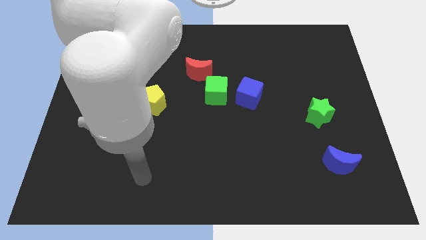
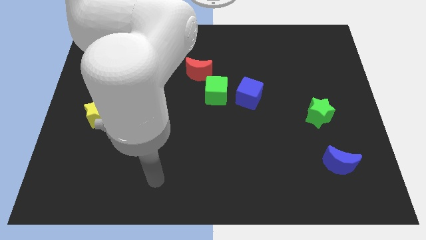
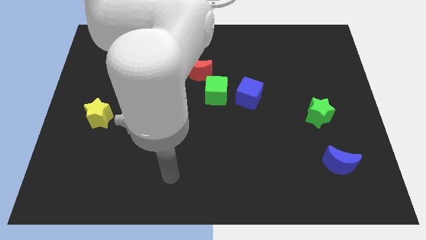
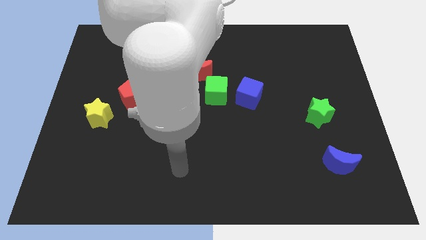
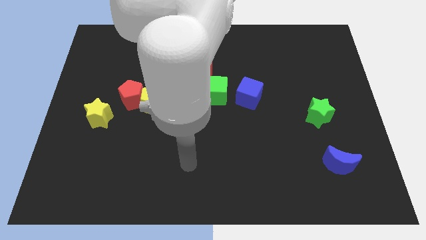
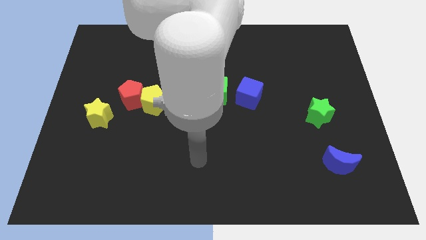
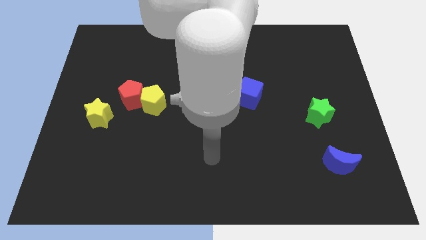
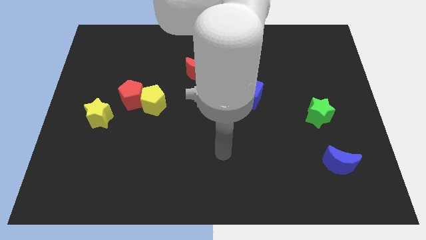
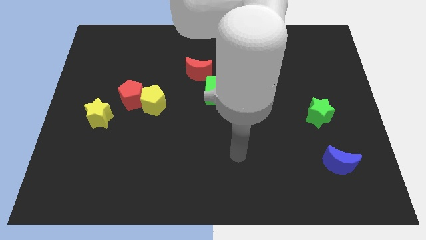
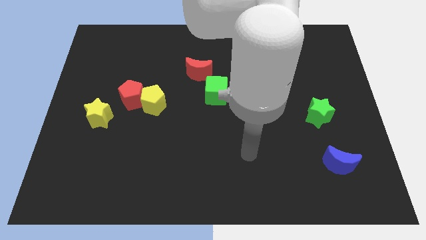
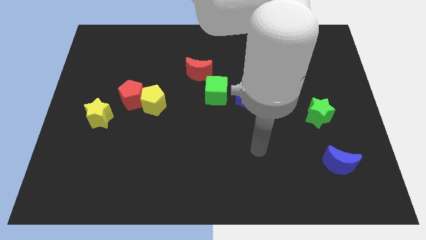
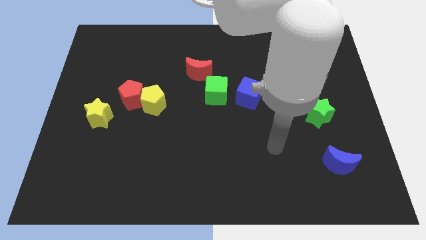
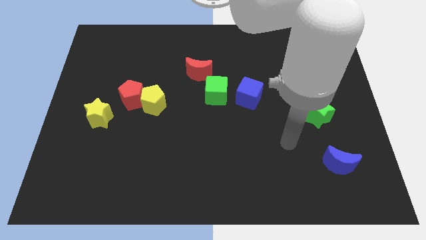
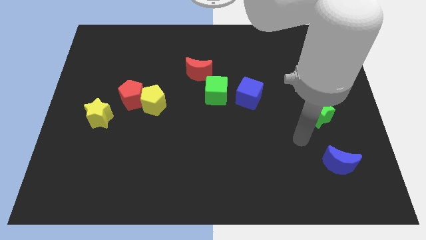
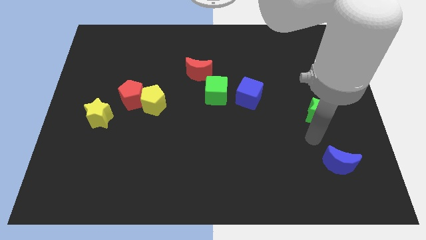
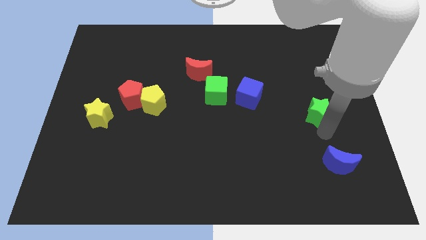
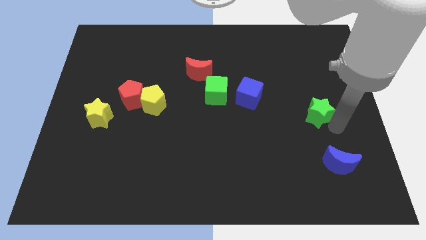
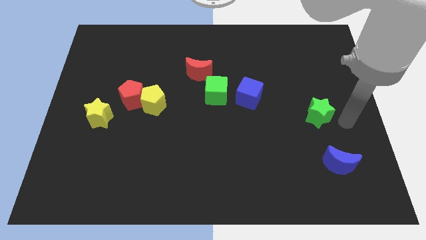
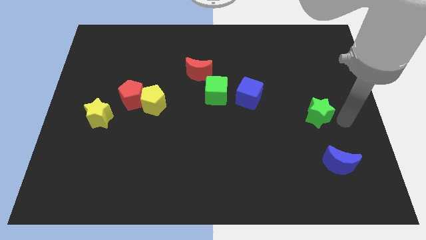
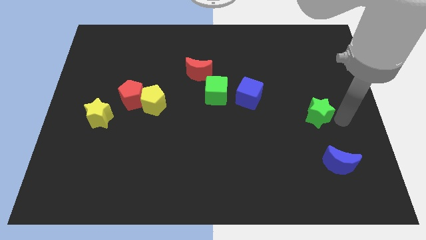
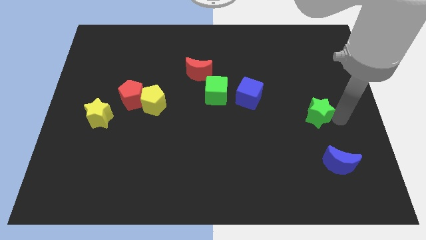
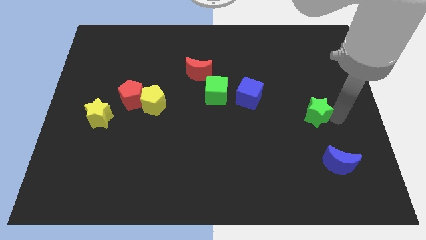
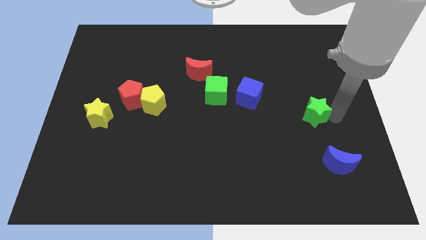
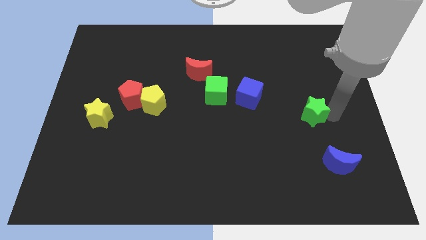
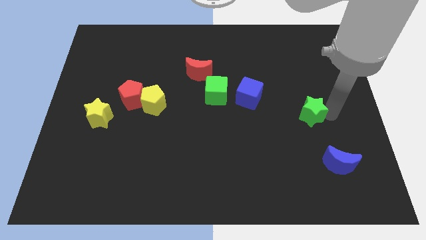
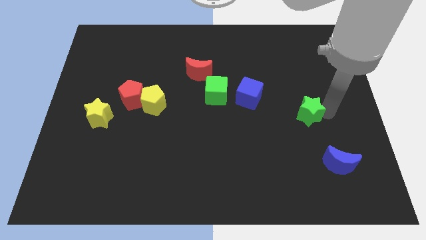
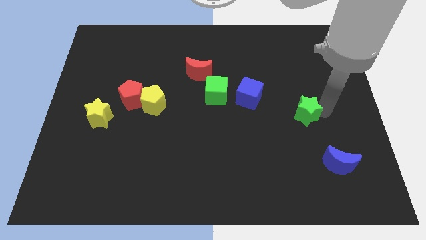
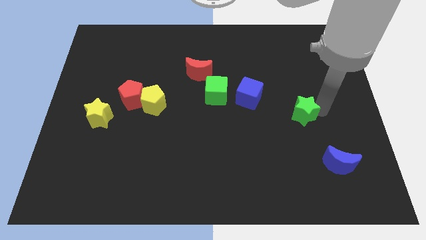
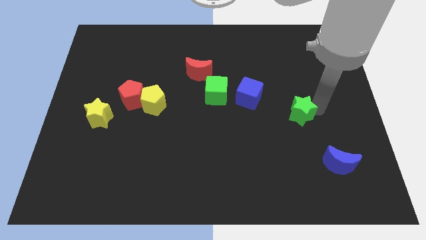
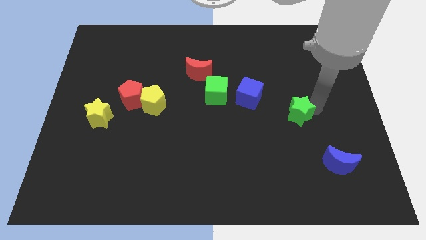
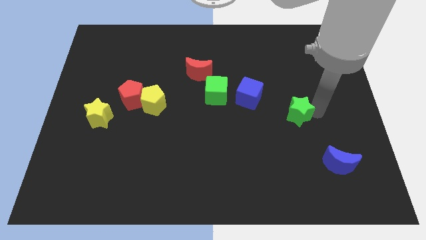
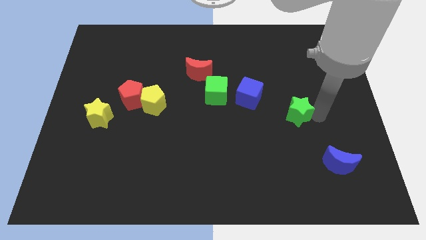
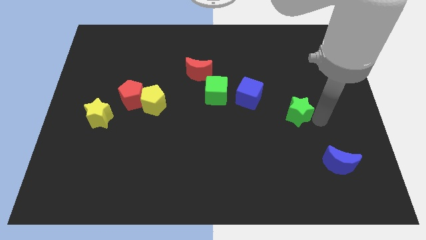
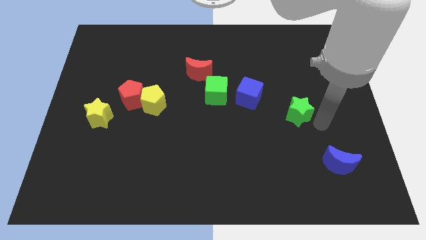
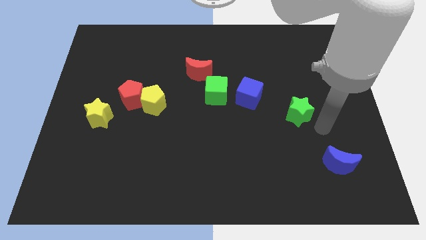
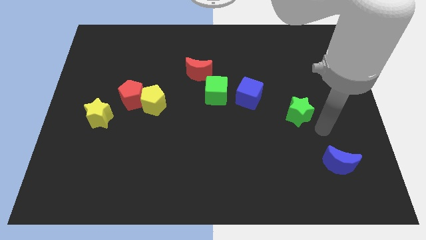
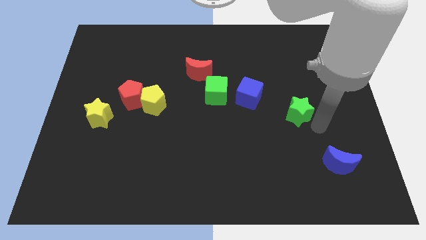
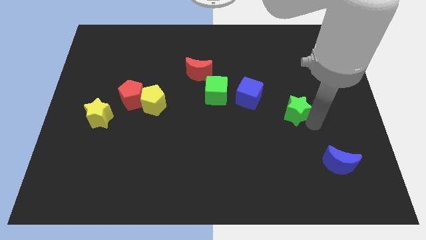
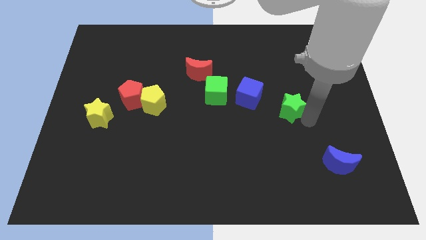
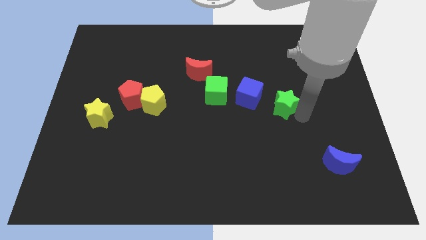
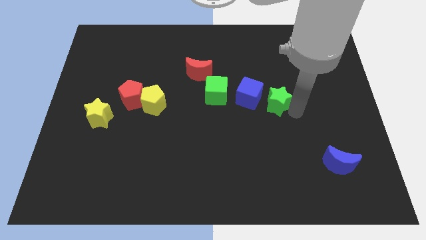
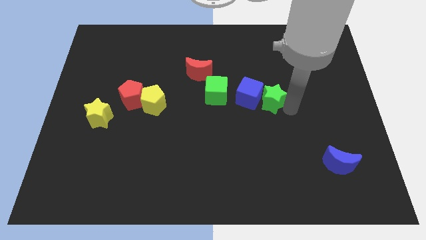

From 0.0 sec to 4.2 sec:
put the green star to the blue cube

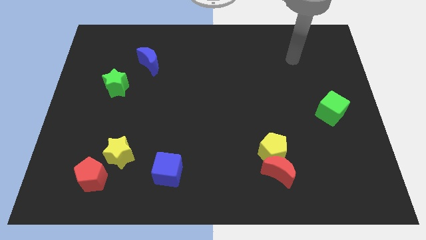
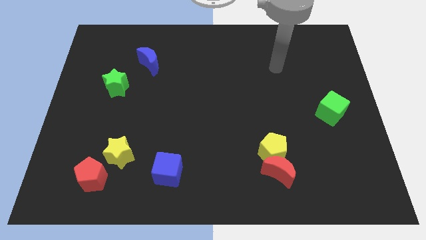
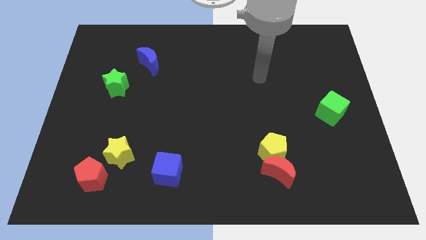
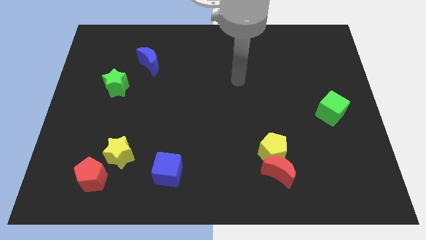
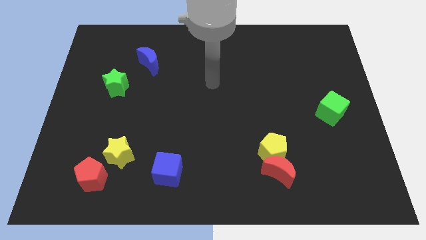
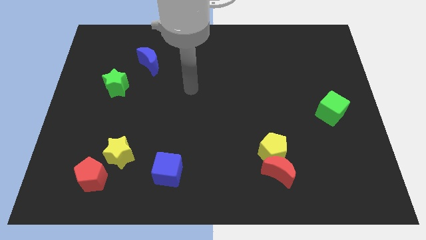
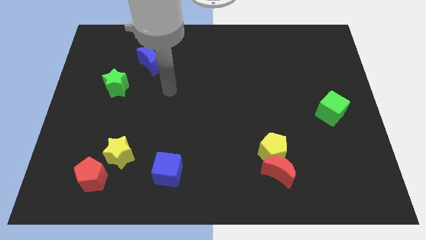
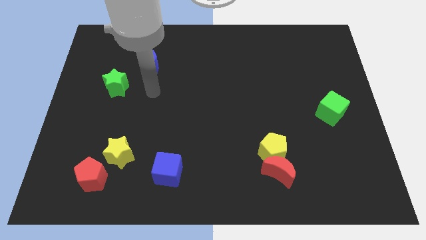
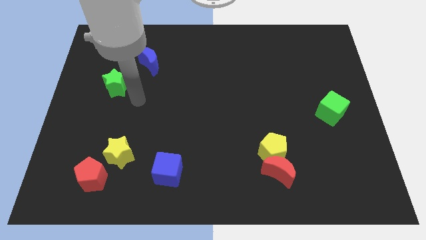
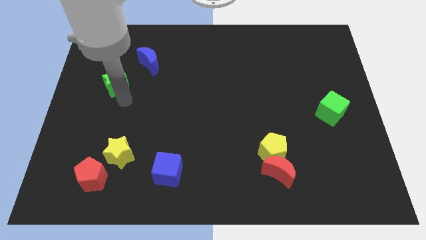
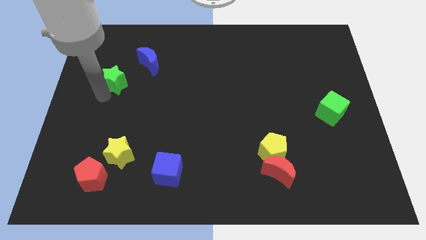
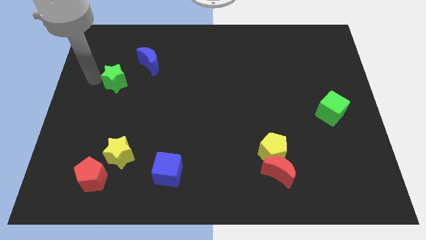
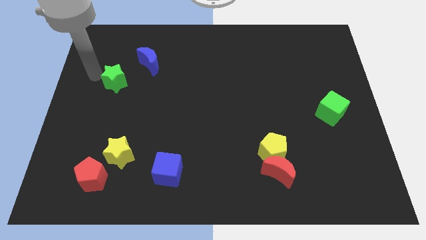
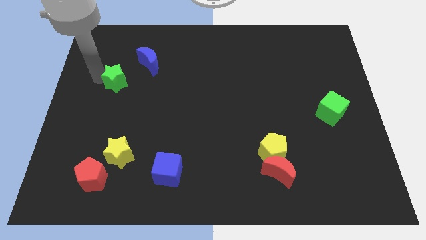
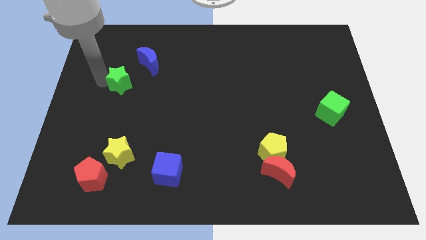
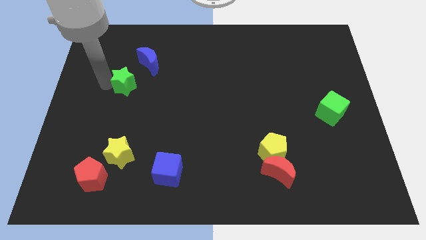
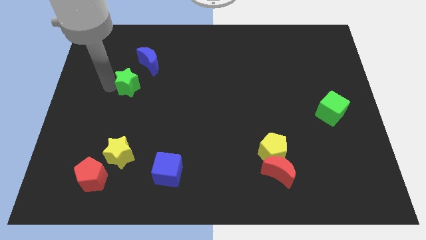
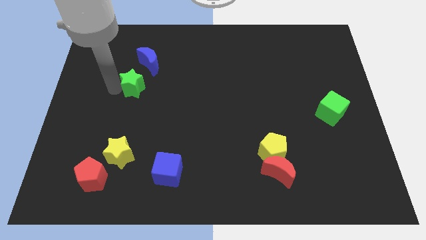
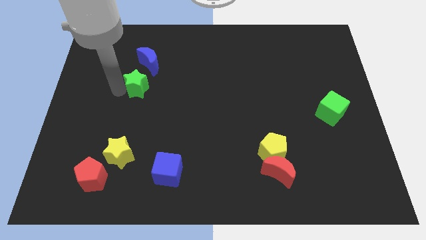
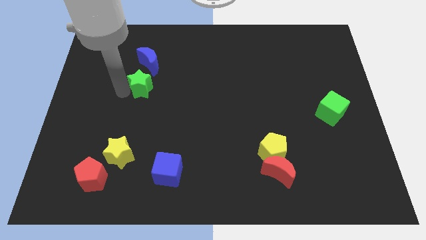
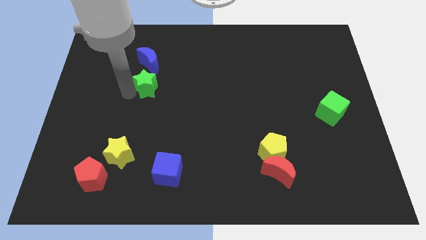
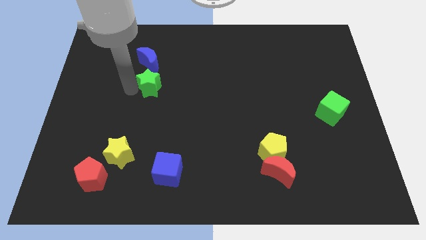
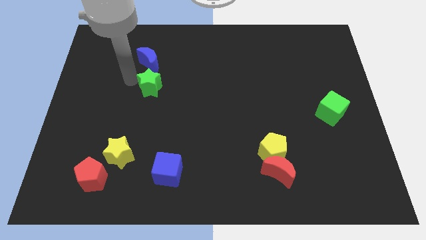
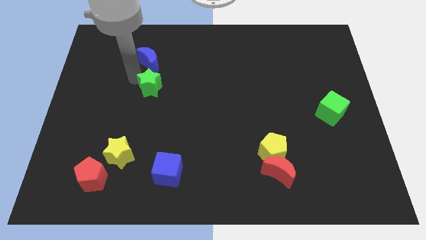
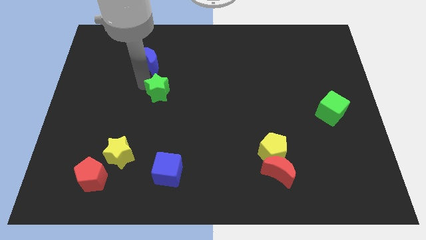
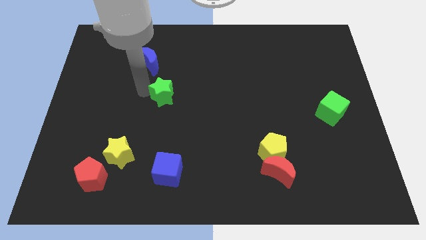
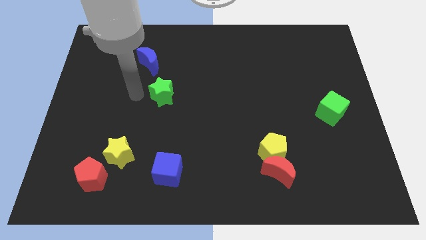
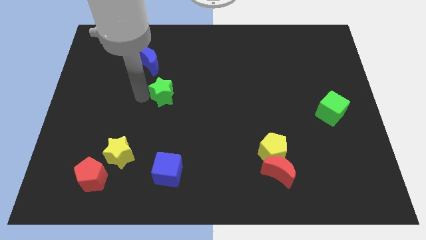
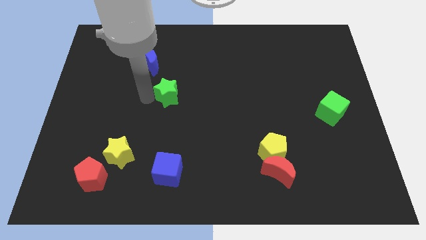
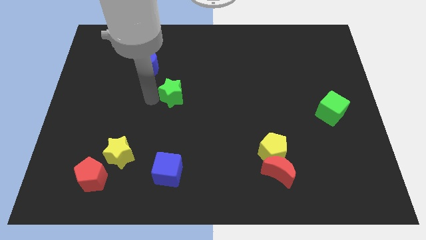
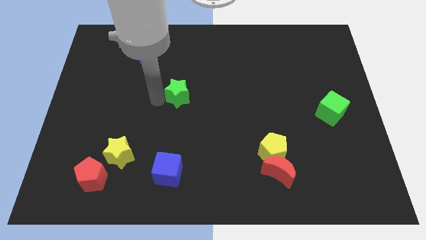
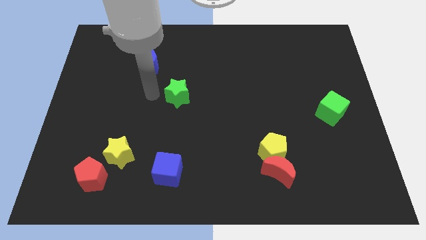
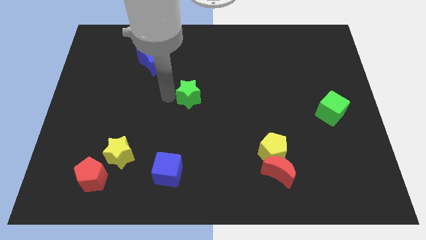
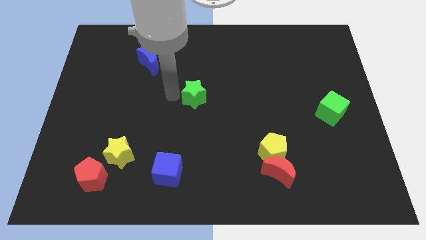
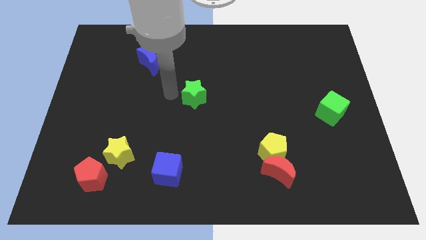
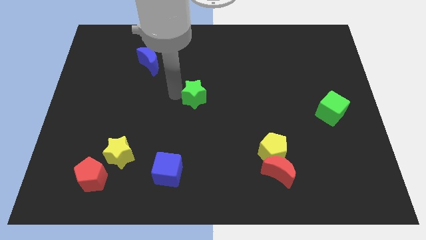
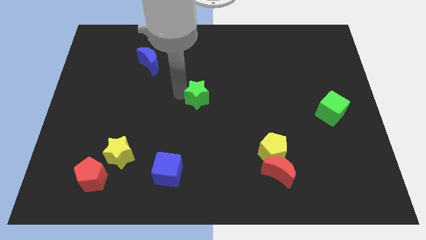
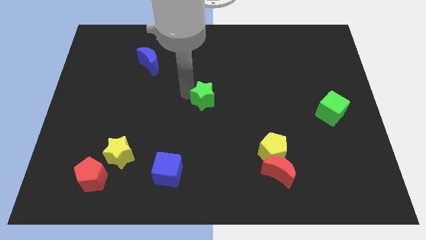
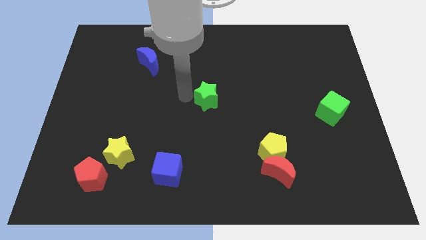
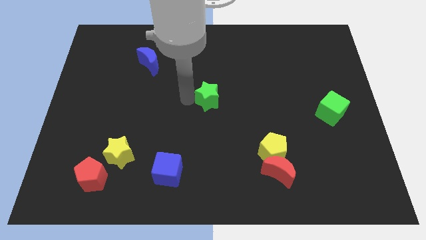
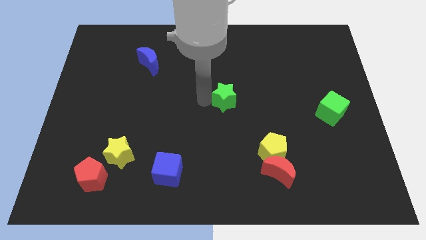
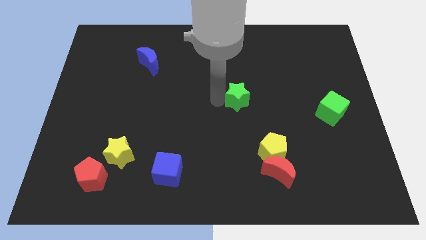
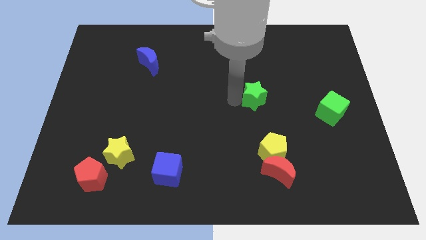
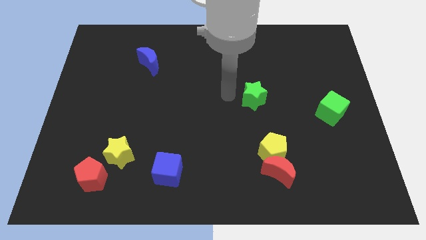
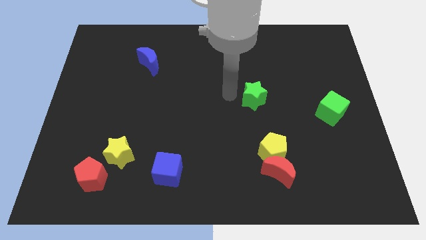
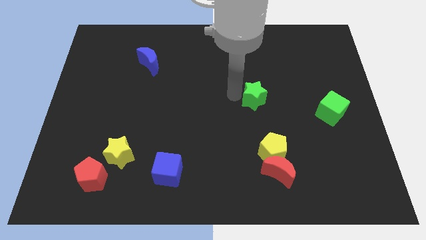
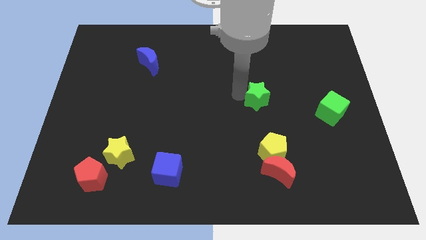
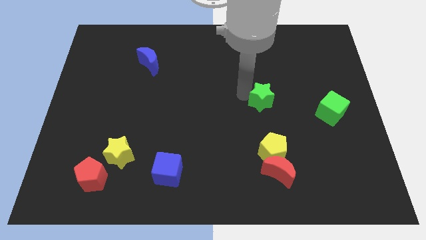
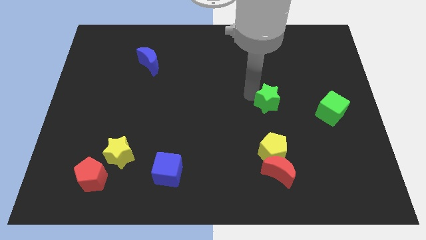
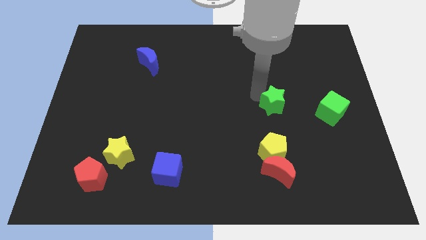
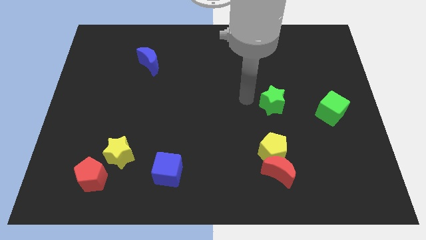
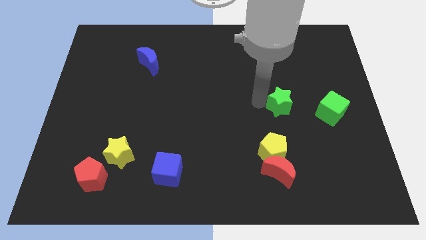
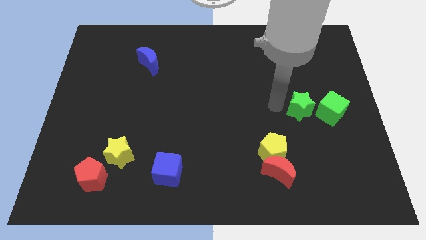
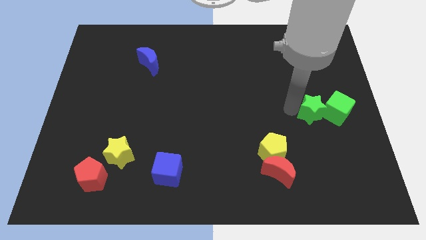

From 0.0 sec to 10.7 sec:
push the green star next to the green cube
